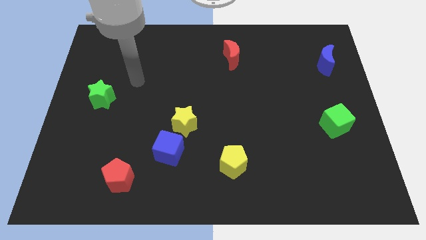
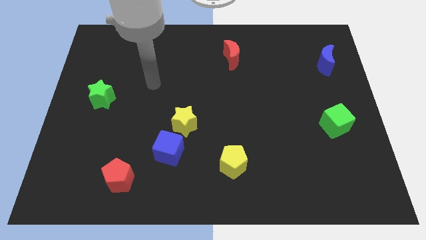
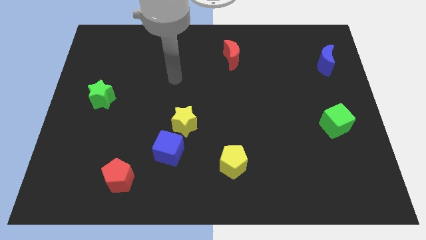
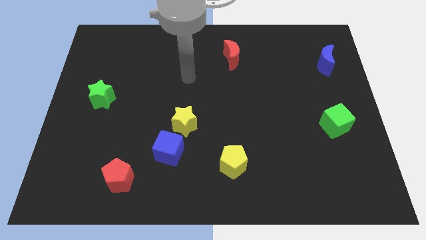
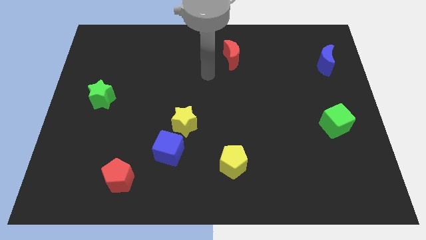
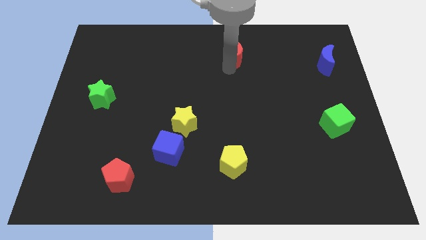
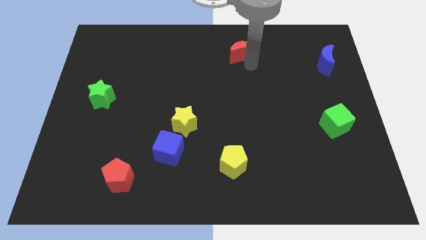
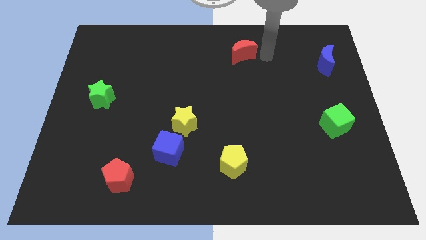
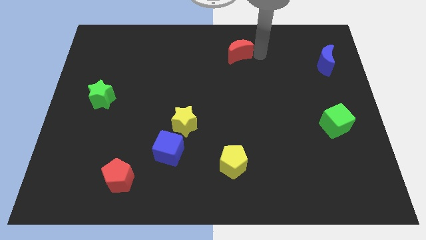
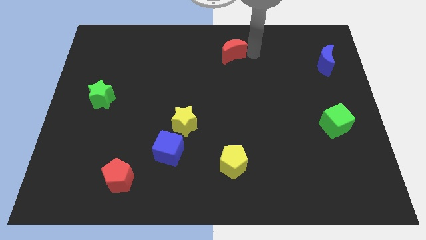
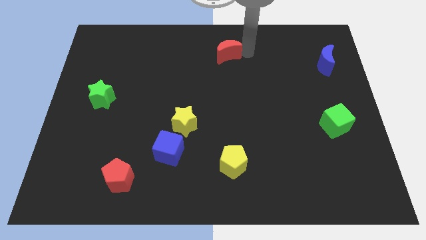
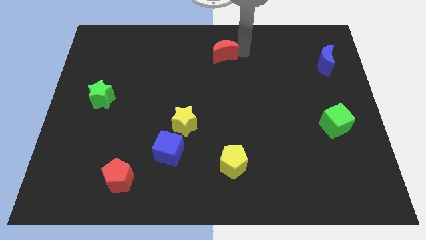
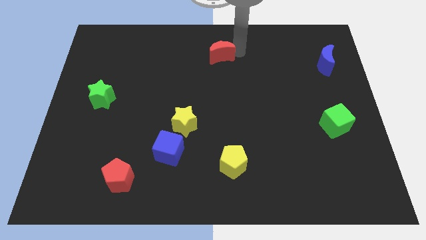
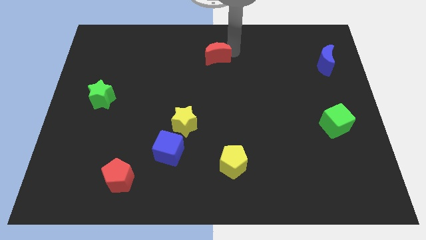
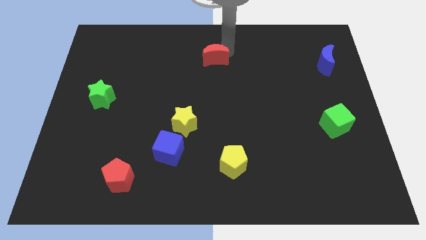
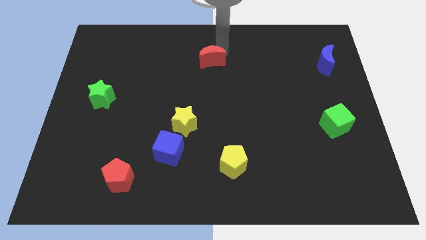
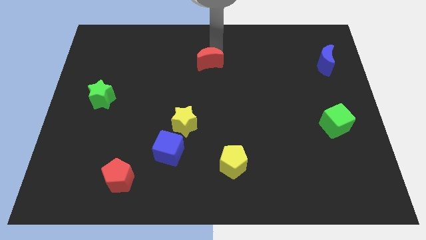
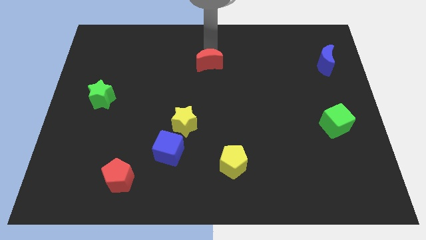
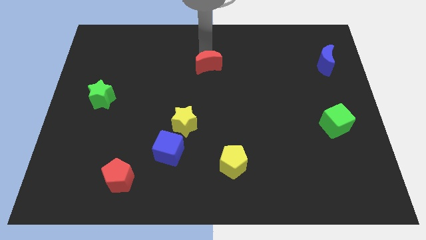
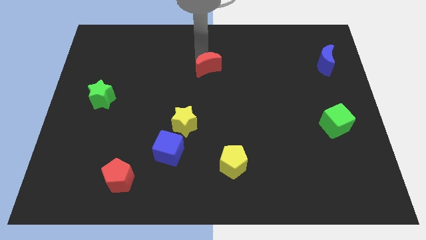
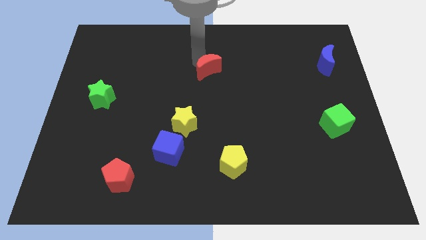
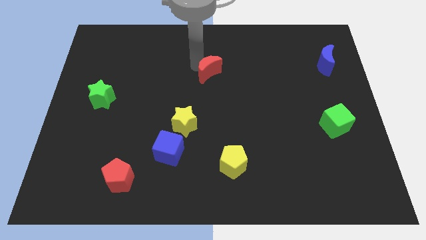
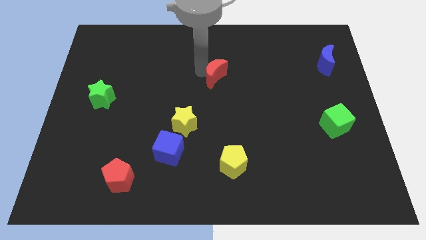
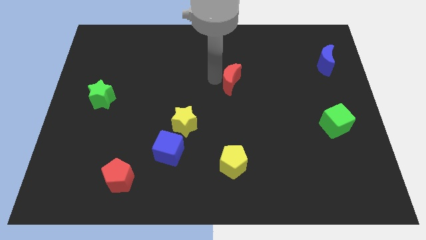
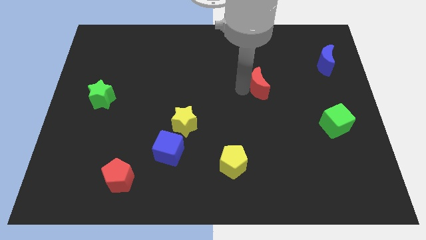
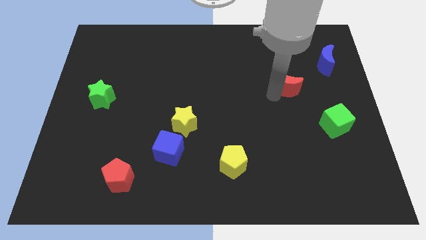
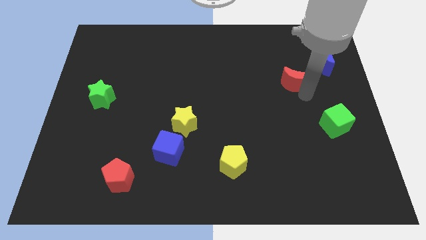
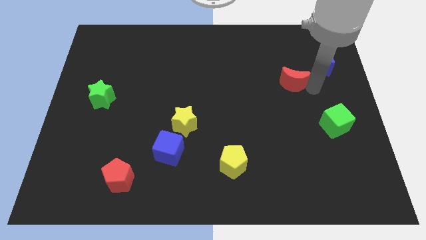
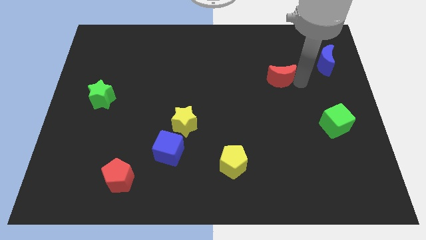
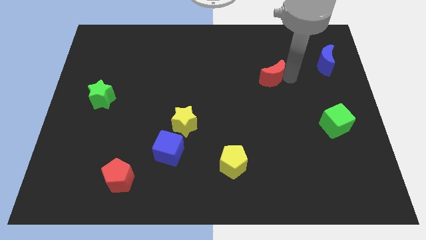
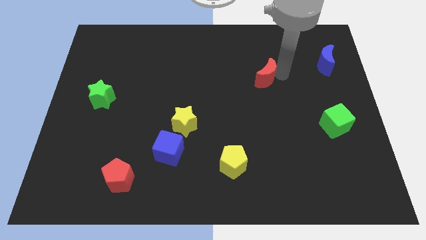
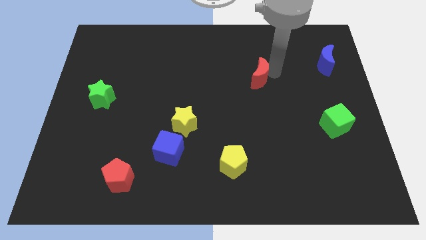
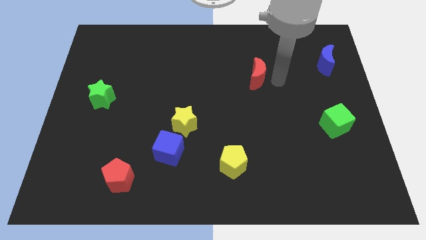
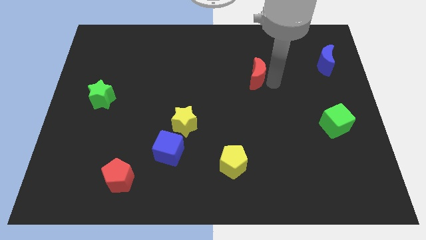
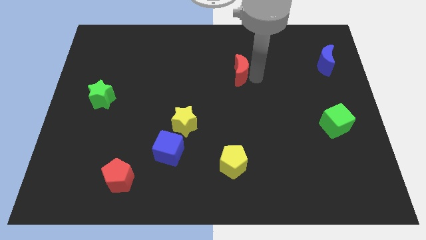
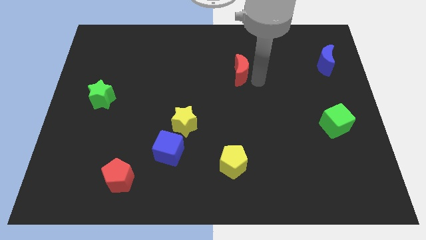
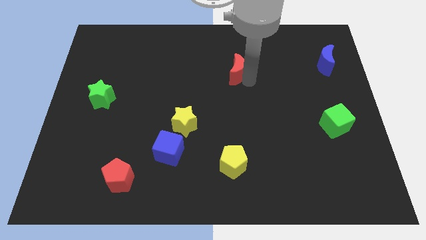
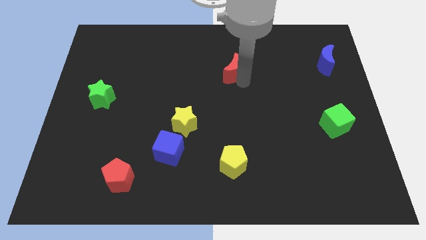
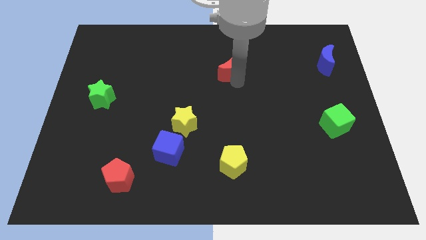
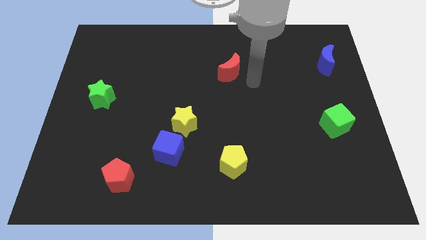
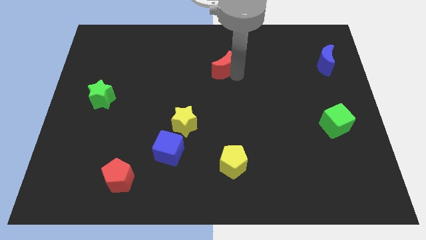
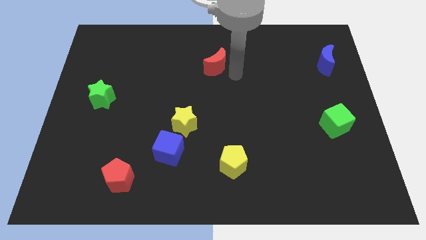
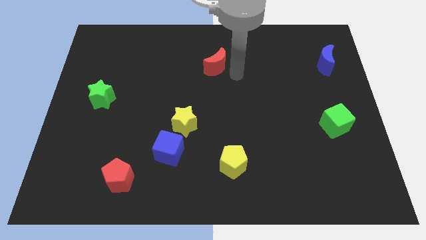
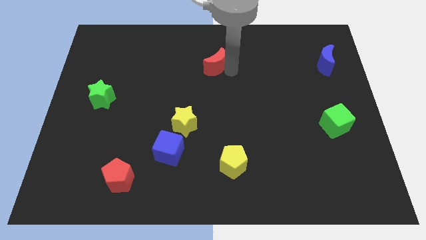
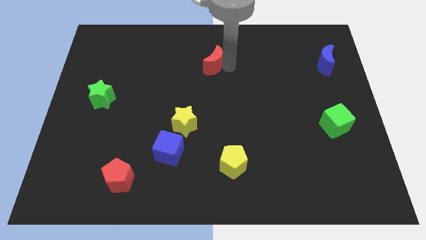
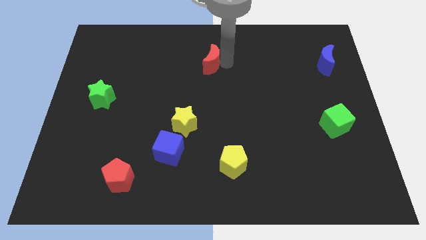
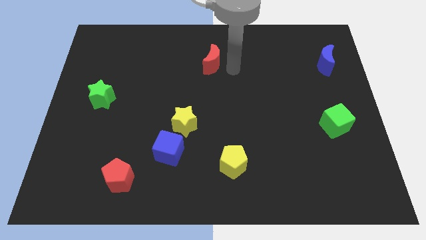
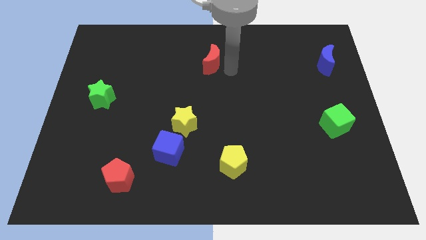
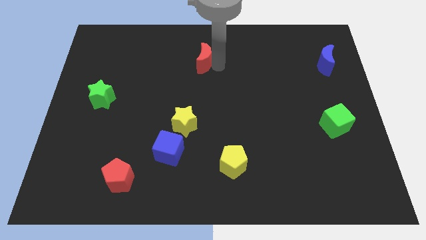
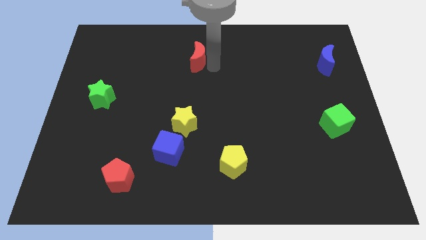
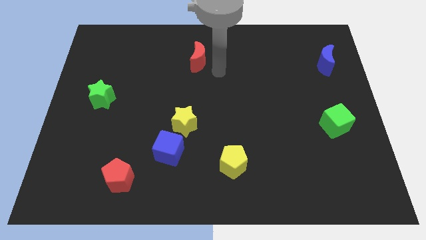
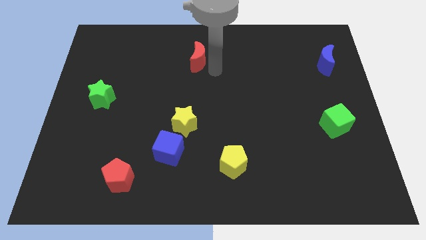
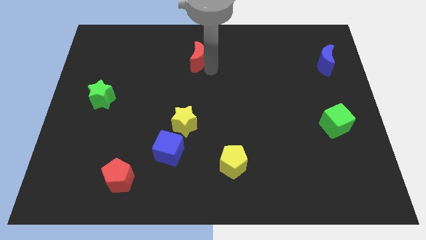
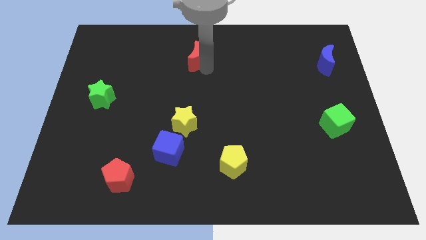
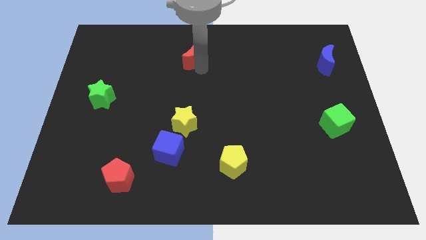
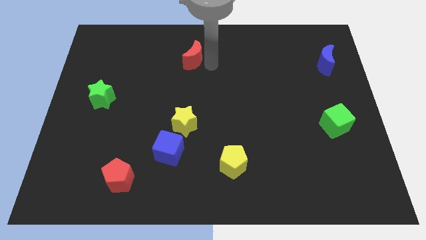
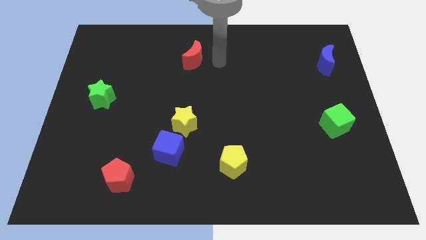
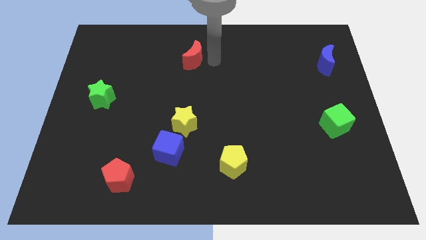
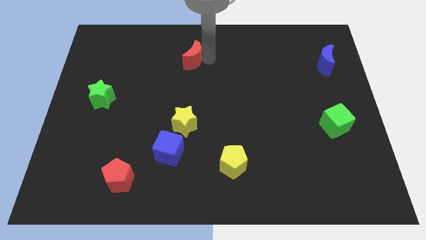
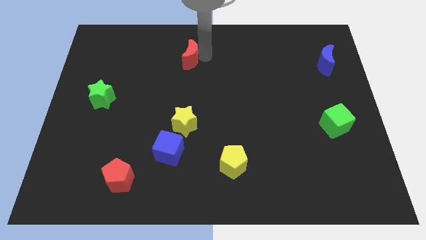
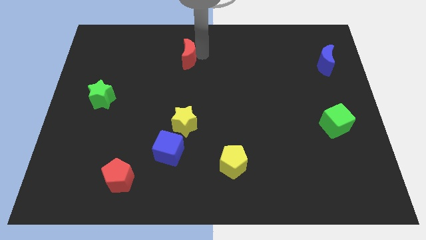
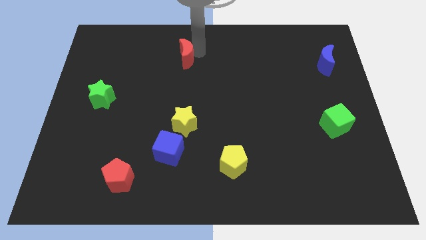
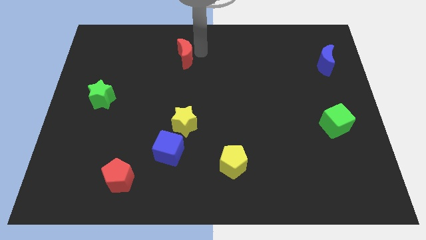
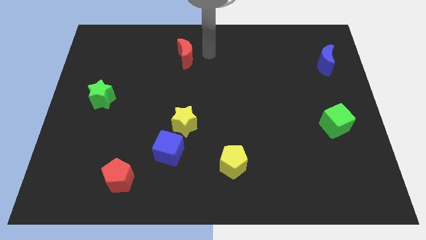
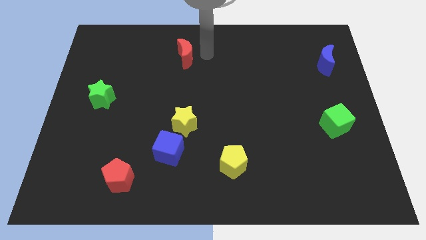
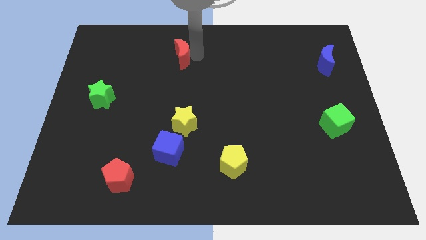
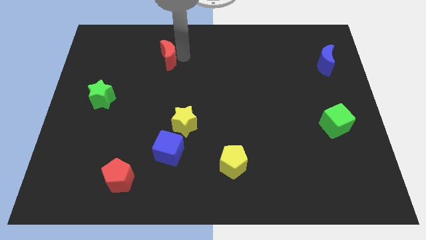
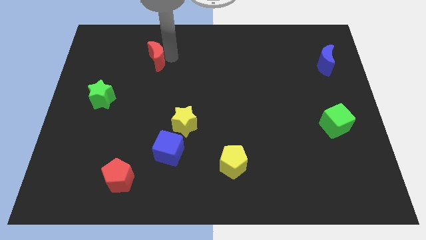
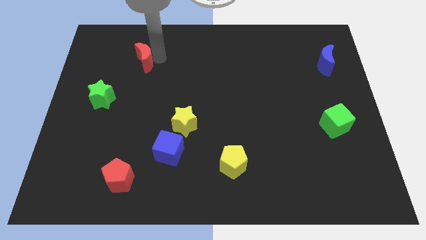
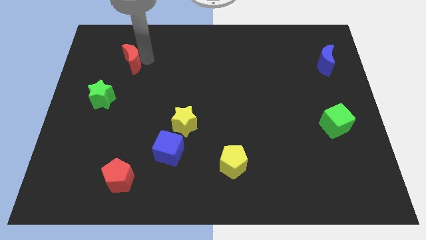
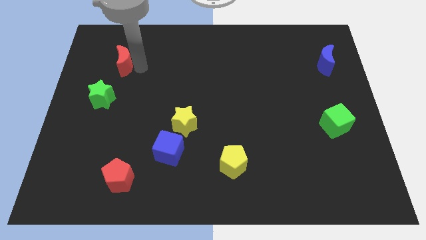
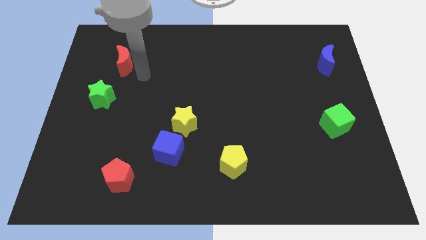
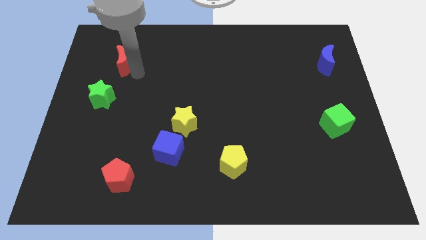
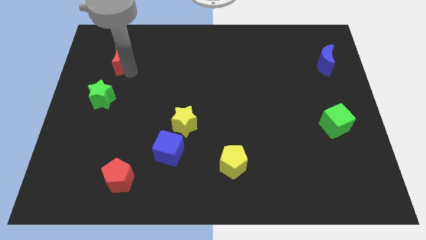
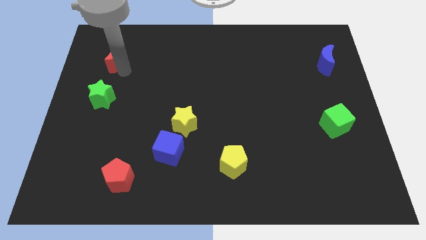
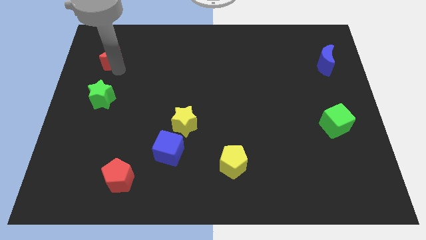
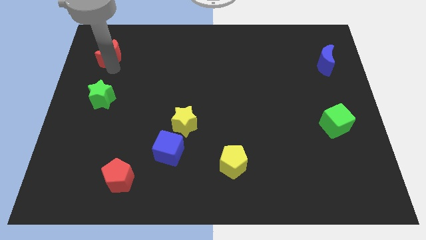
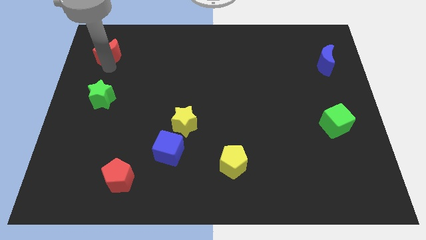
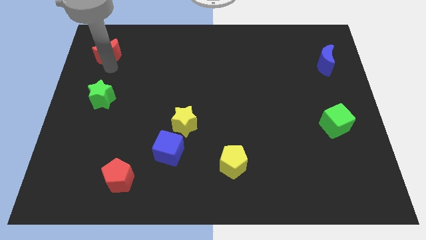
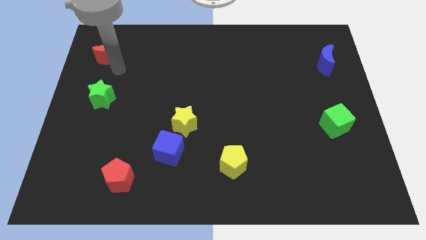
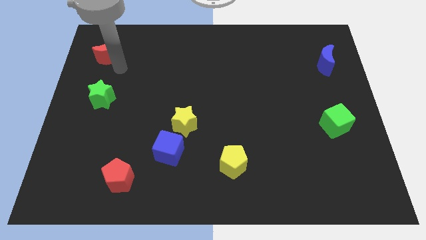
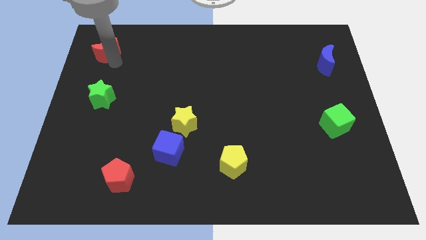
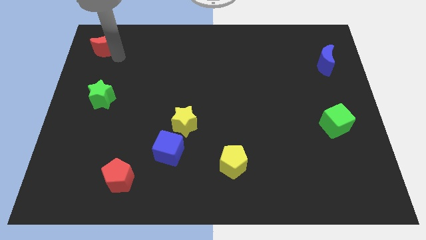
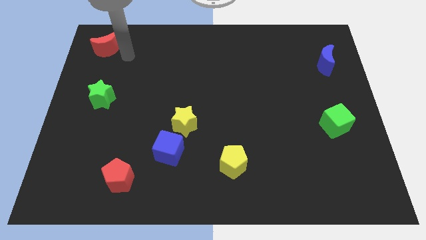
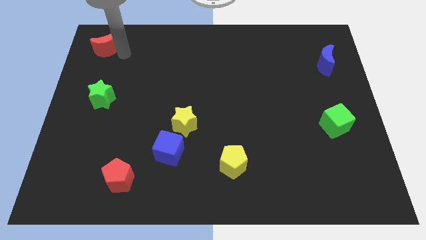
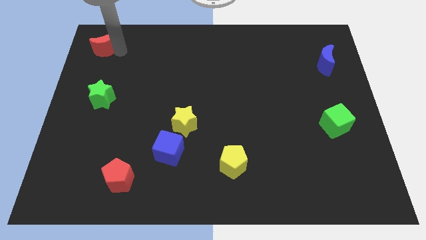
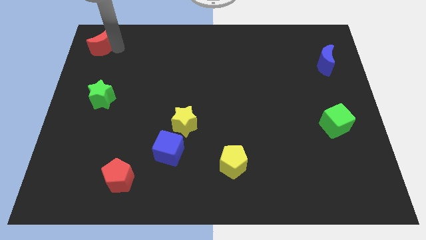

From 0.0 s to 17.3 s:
put the red moon to the top left of the board
